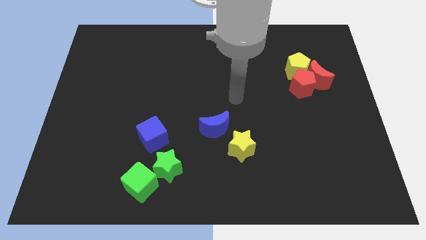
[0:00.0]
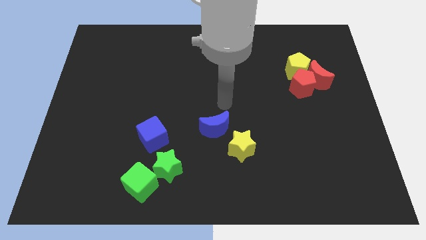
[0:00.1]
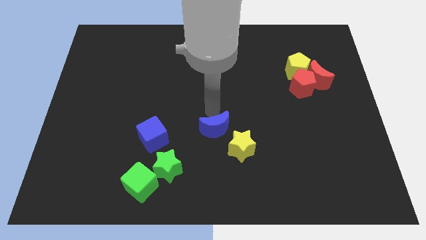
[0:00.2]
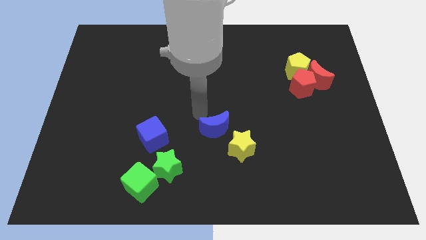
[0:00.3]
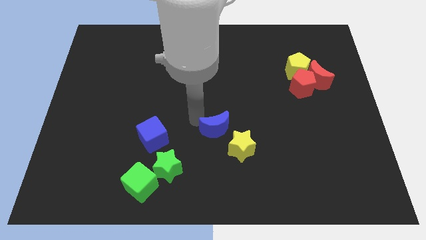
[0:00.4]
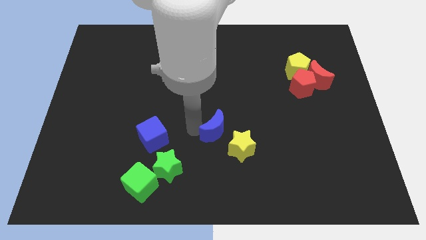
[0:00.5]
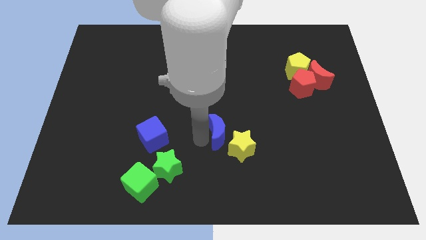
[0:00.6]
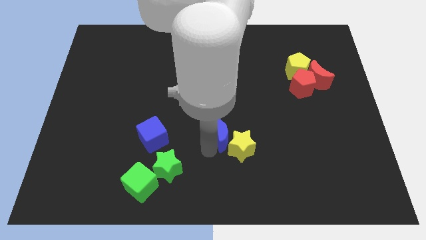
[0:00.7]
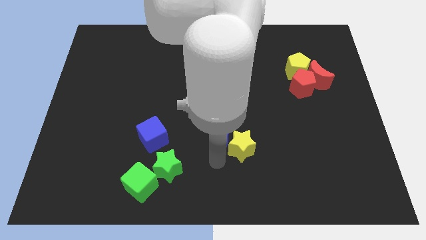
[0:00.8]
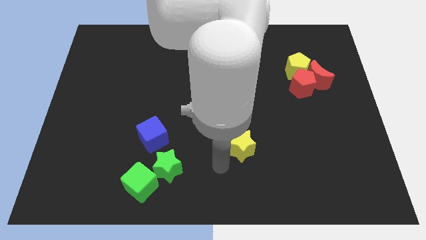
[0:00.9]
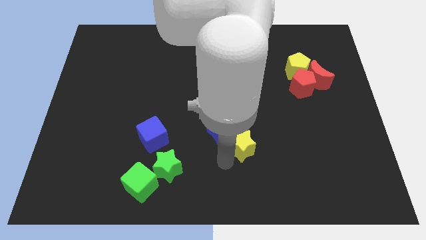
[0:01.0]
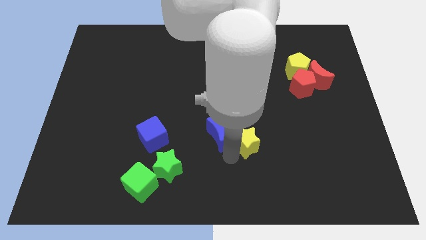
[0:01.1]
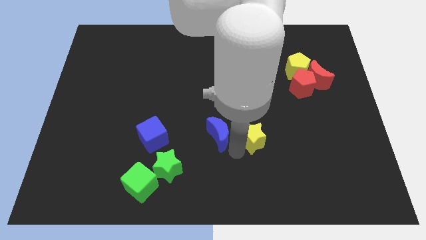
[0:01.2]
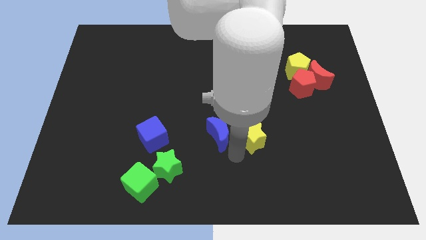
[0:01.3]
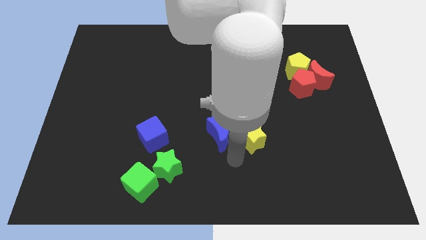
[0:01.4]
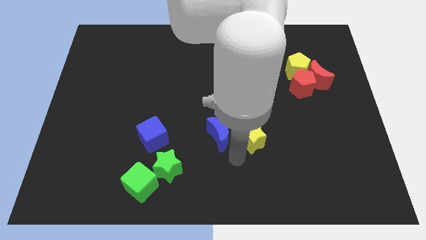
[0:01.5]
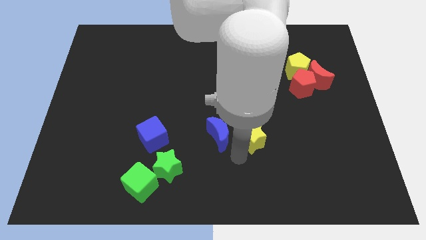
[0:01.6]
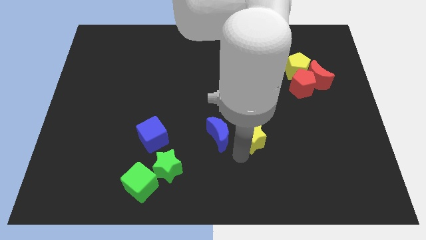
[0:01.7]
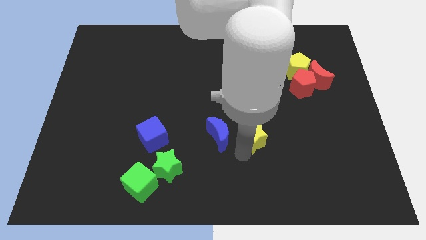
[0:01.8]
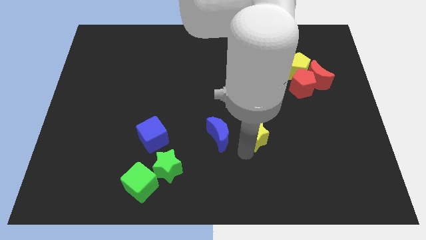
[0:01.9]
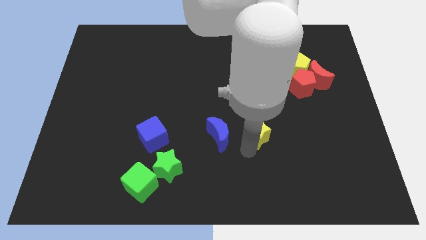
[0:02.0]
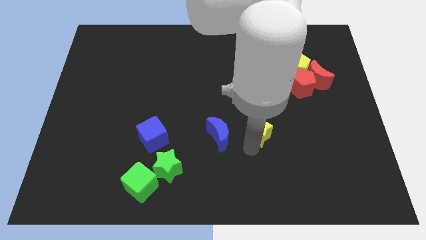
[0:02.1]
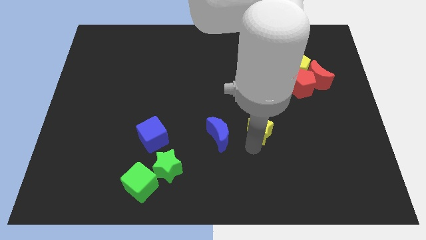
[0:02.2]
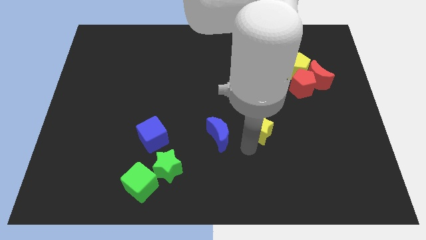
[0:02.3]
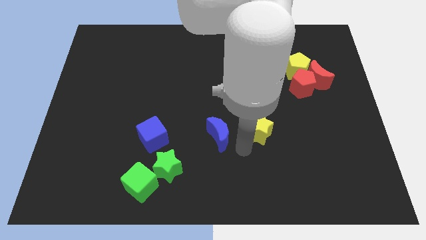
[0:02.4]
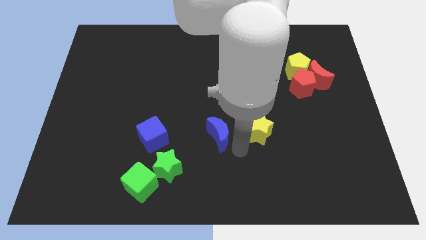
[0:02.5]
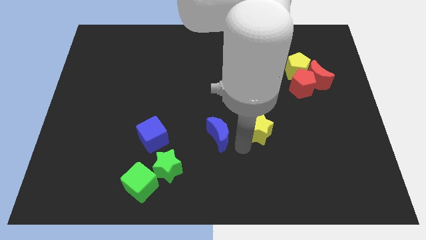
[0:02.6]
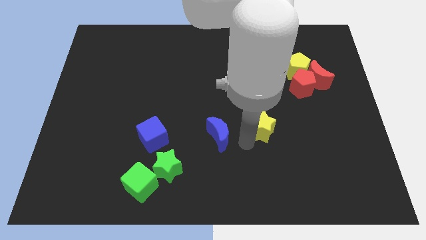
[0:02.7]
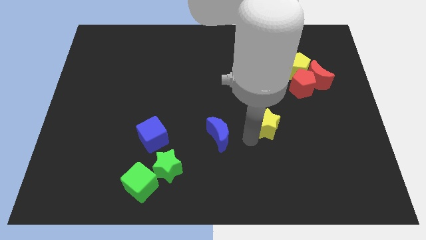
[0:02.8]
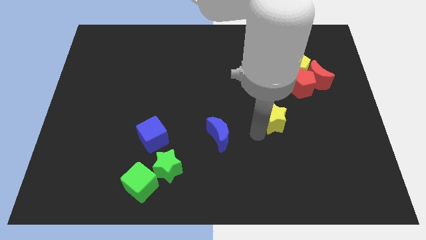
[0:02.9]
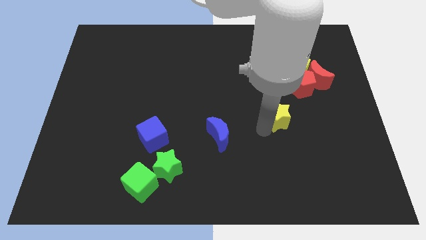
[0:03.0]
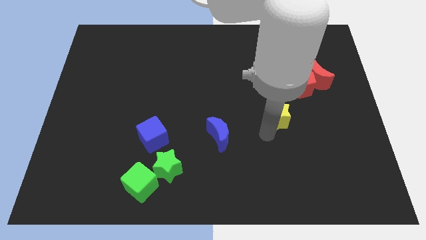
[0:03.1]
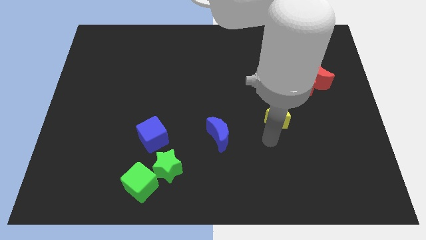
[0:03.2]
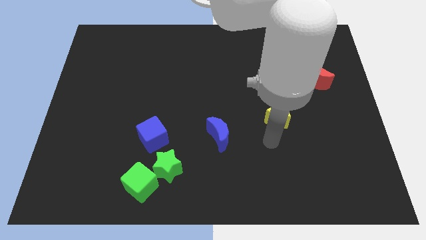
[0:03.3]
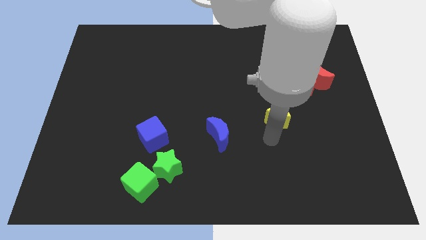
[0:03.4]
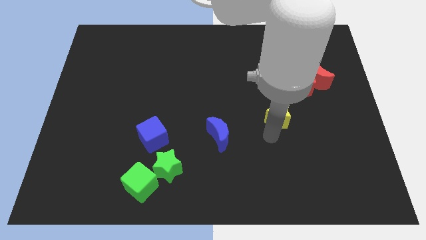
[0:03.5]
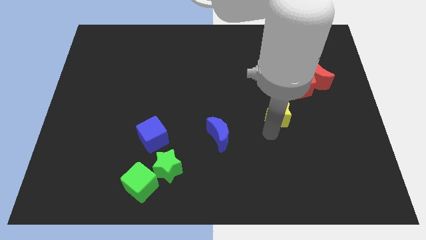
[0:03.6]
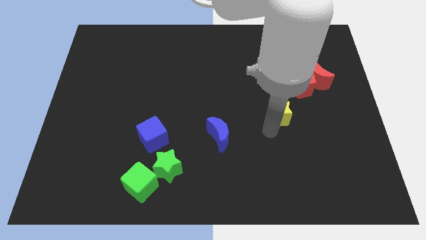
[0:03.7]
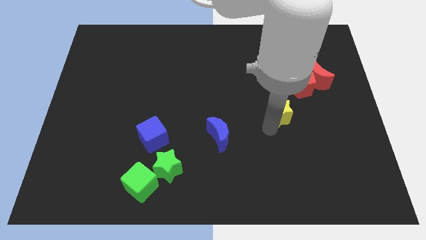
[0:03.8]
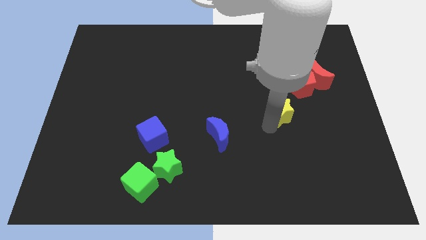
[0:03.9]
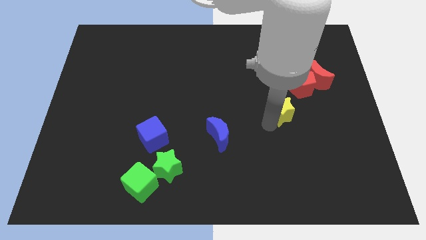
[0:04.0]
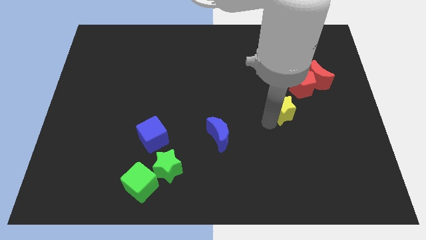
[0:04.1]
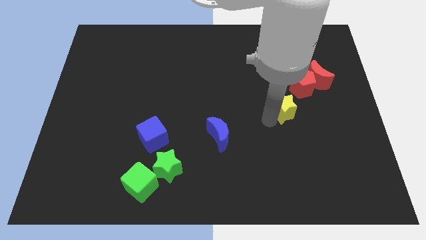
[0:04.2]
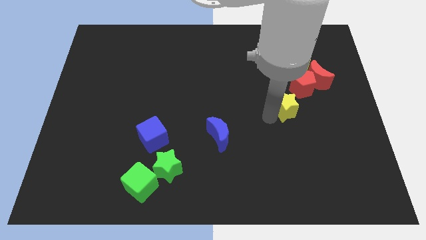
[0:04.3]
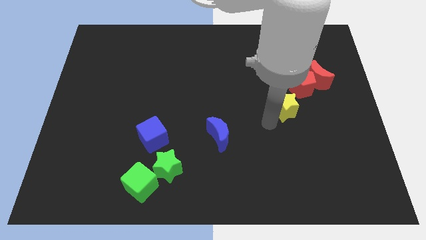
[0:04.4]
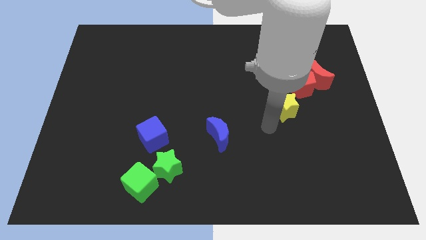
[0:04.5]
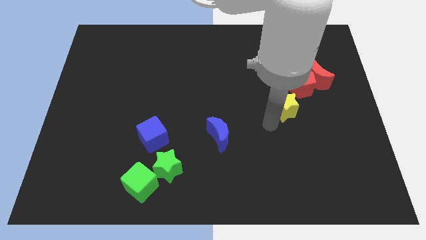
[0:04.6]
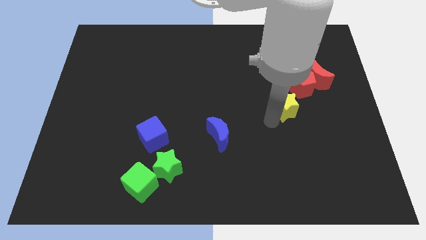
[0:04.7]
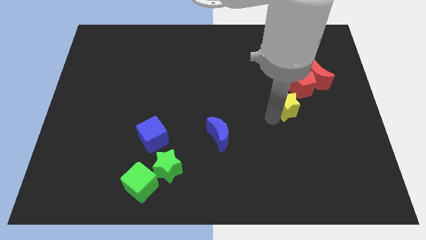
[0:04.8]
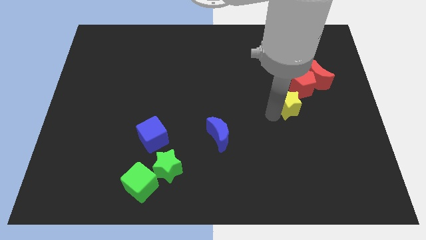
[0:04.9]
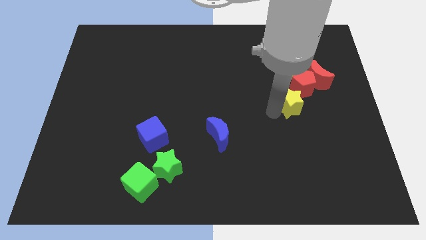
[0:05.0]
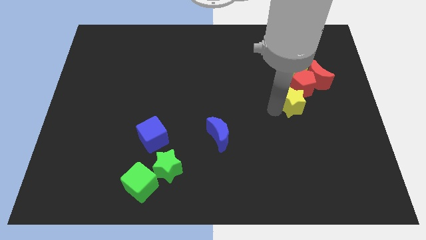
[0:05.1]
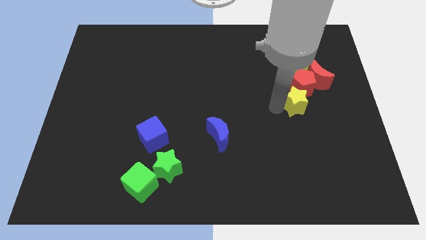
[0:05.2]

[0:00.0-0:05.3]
slide the yellow star towards the red pentagon

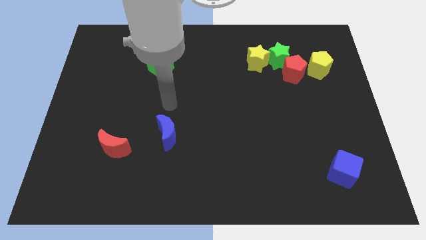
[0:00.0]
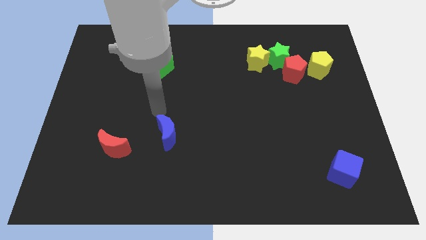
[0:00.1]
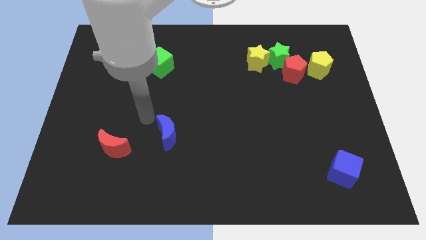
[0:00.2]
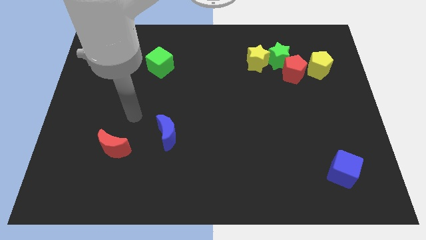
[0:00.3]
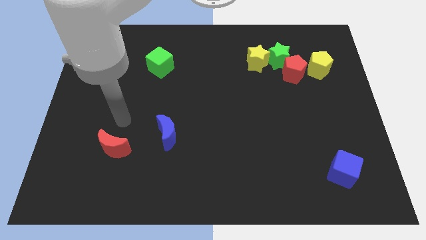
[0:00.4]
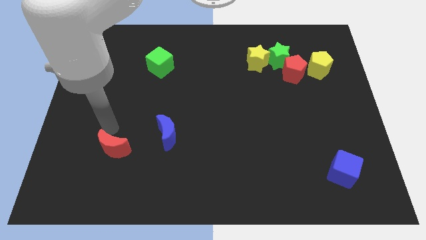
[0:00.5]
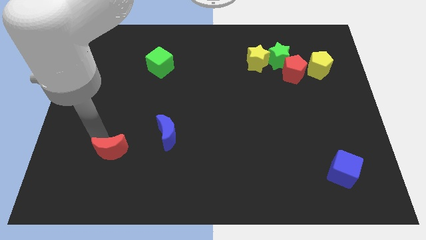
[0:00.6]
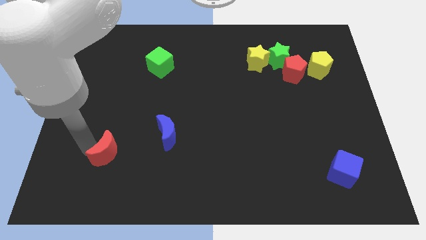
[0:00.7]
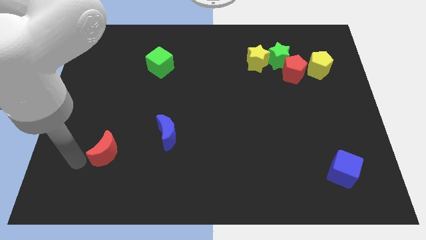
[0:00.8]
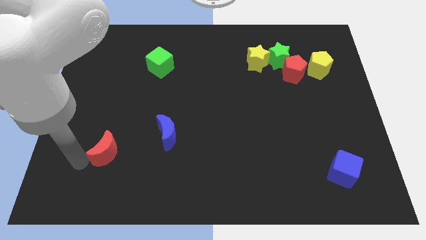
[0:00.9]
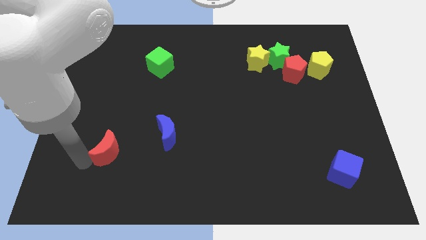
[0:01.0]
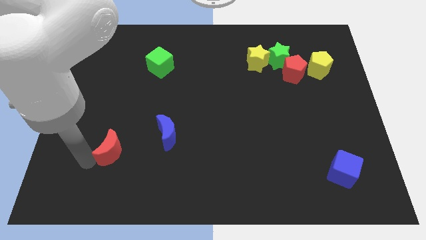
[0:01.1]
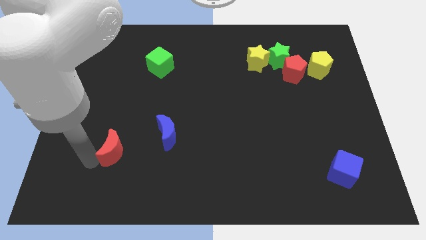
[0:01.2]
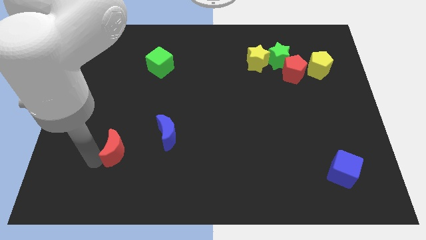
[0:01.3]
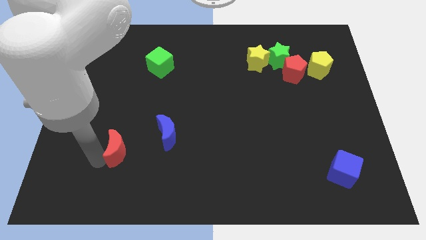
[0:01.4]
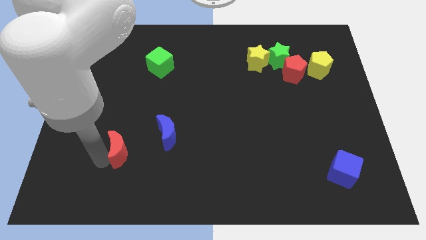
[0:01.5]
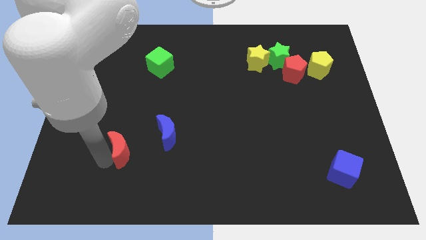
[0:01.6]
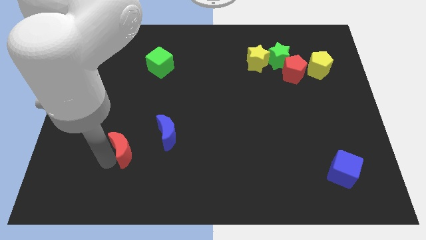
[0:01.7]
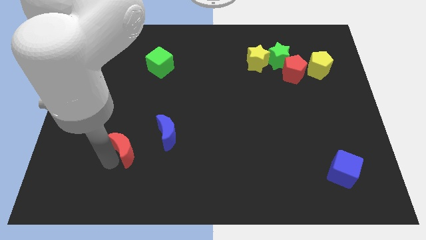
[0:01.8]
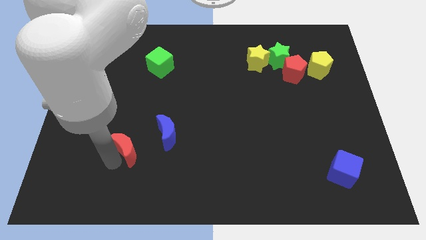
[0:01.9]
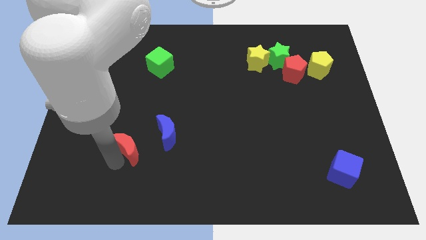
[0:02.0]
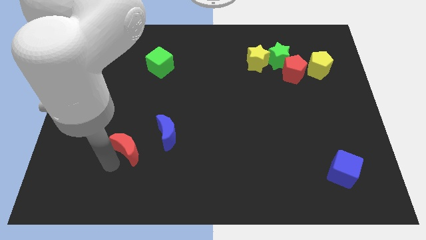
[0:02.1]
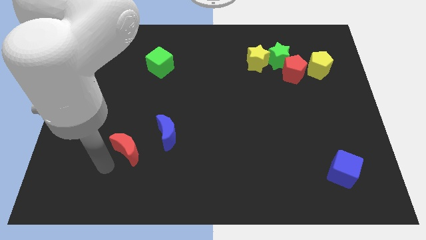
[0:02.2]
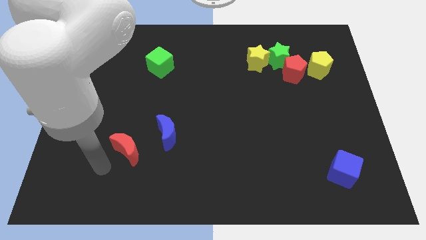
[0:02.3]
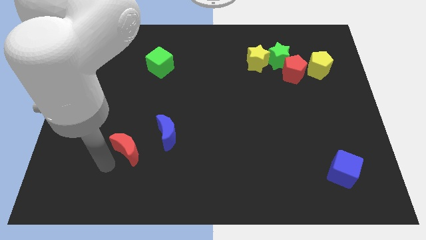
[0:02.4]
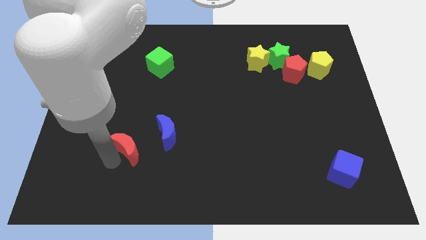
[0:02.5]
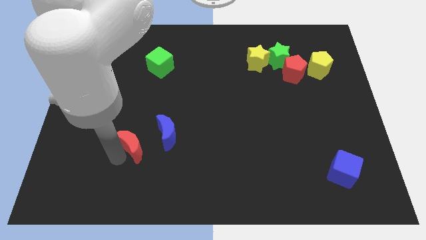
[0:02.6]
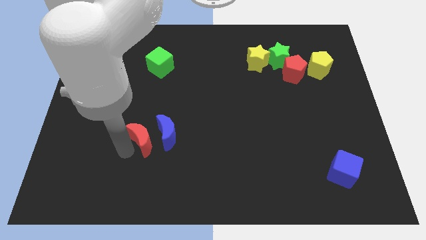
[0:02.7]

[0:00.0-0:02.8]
put the red moon to the blue moon
